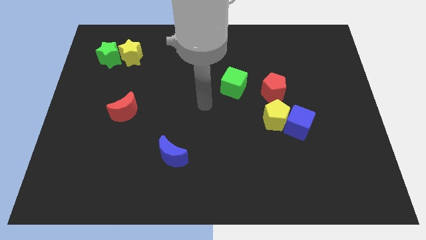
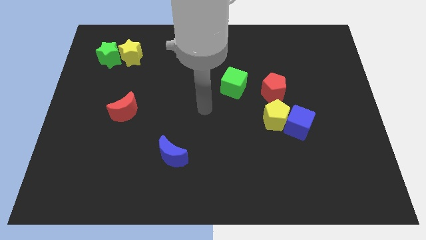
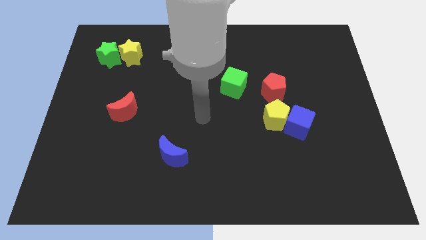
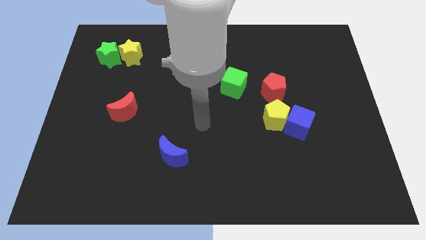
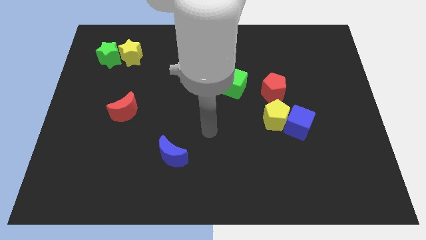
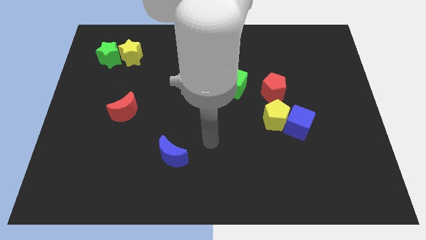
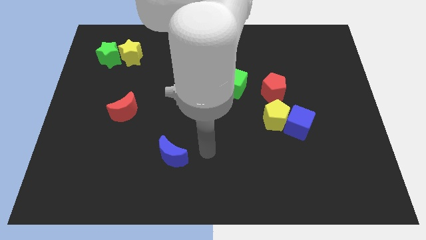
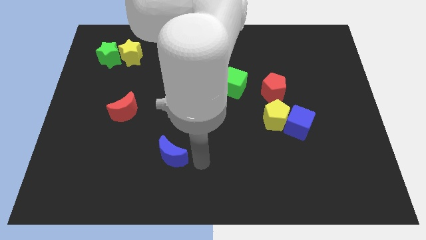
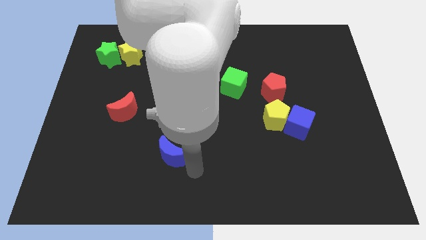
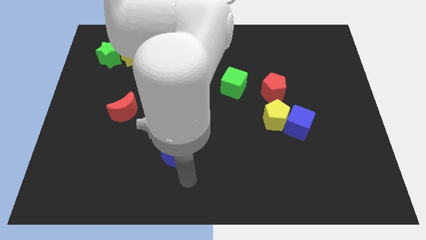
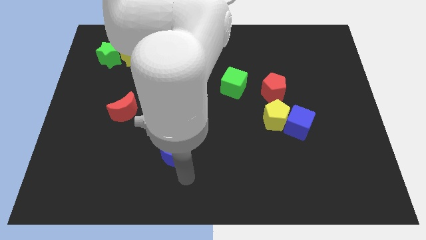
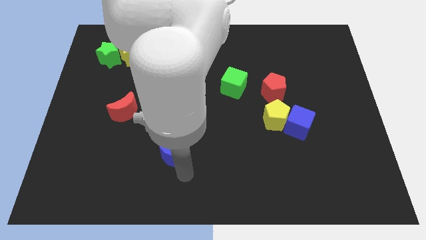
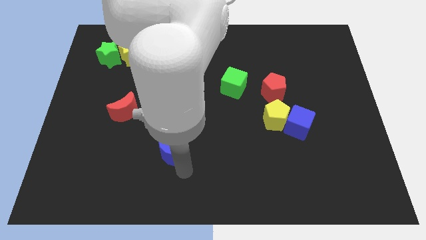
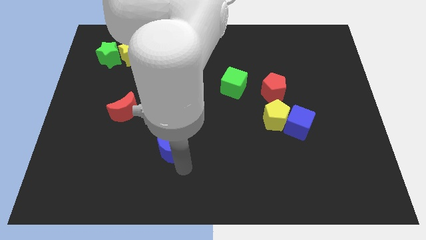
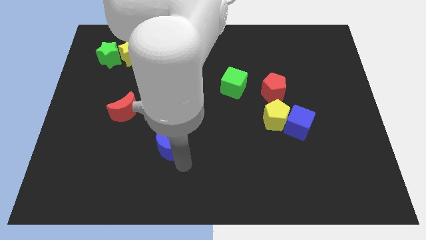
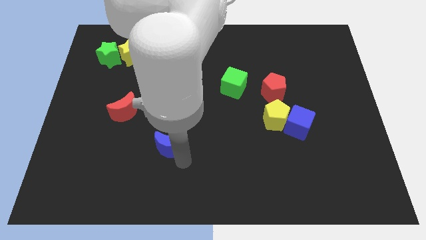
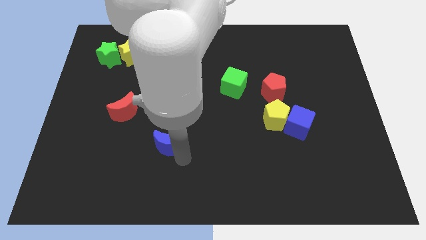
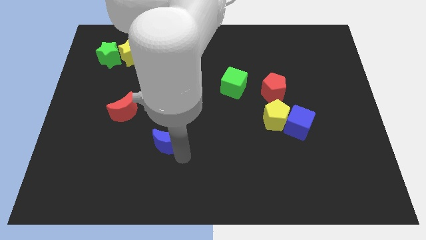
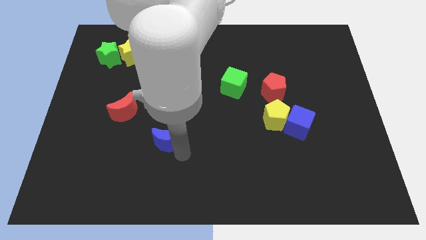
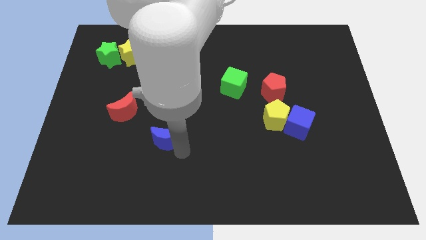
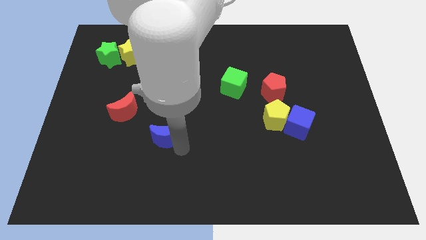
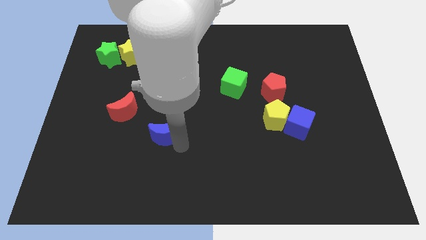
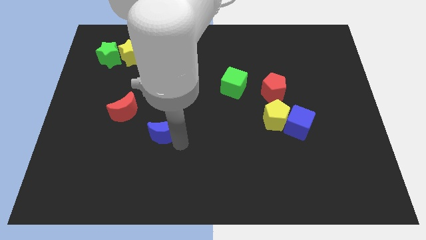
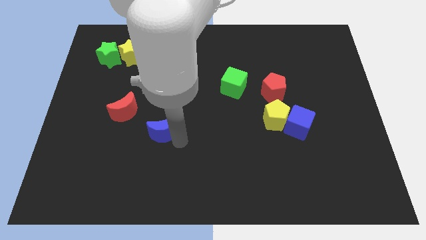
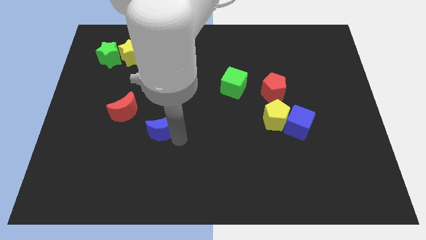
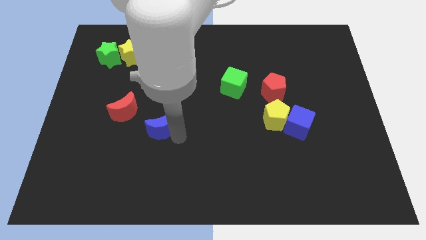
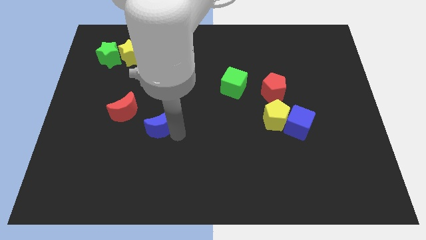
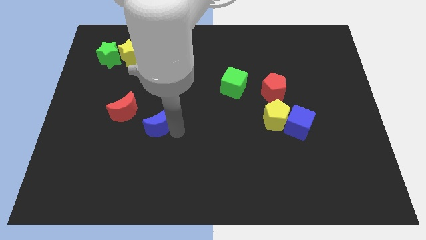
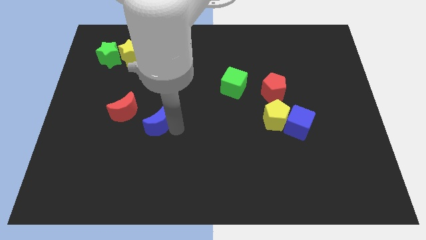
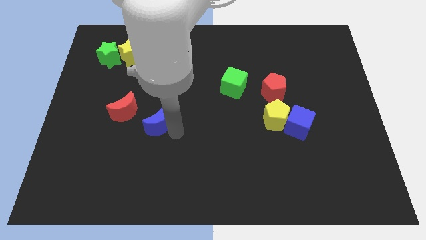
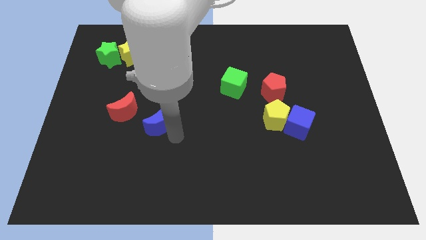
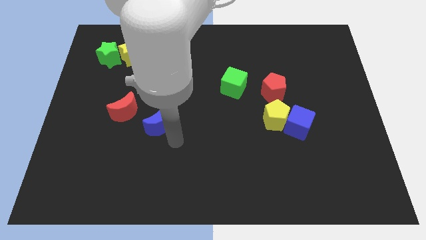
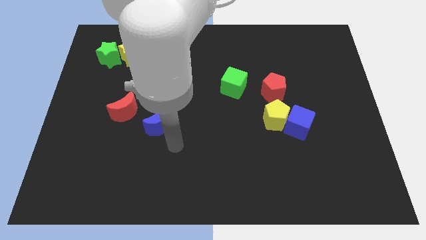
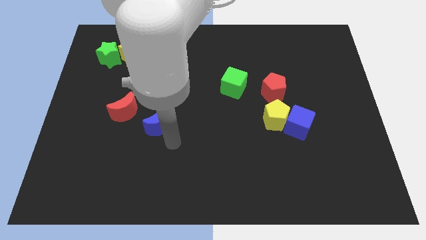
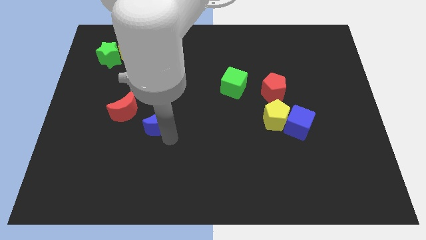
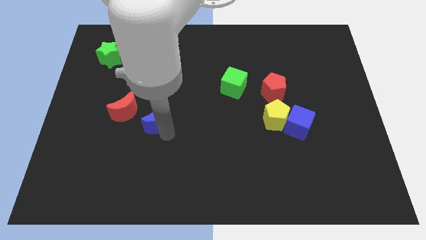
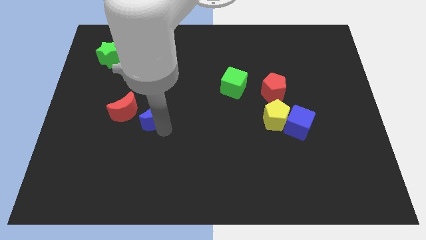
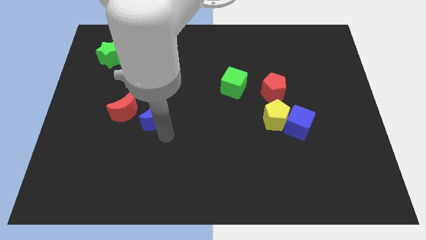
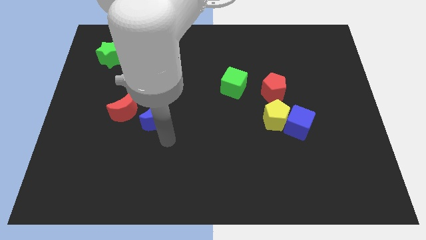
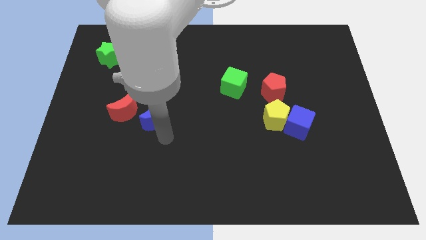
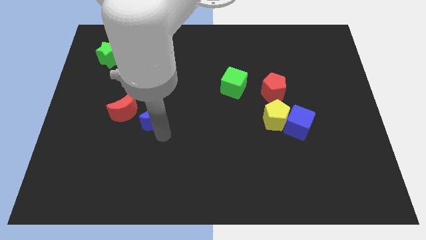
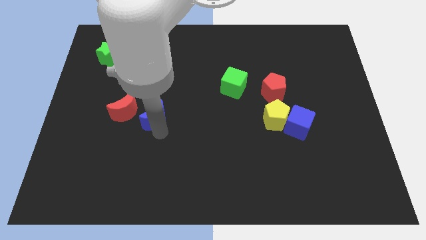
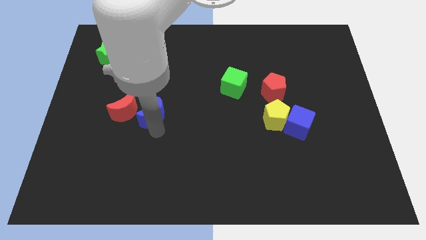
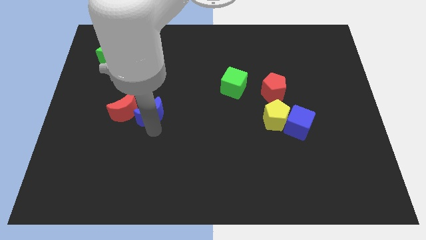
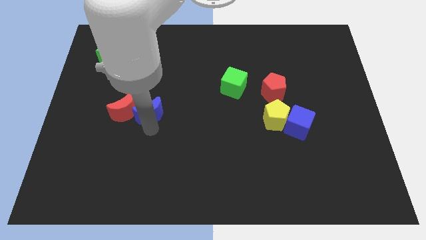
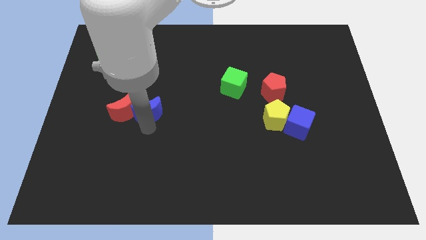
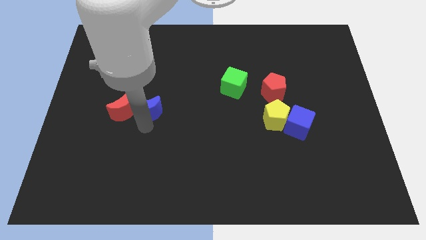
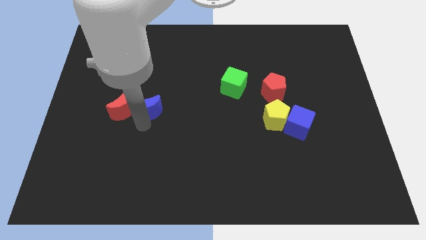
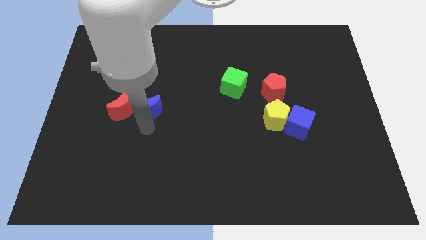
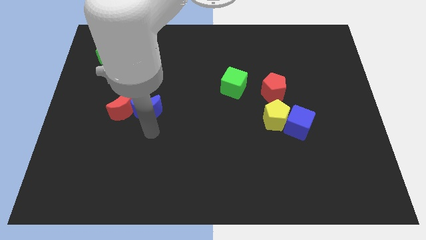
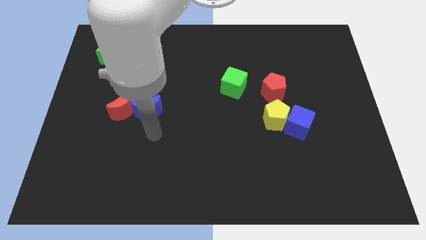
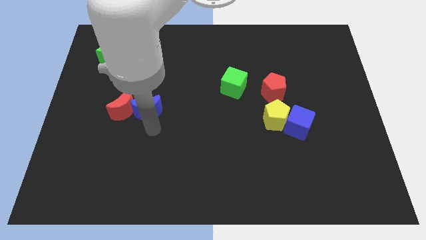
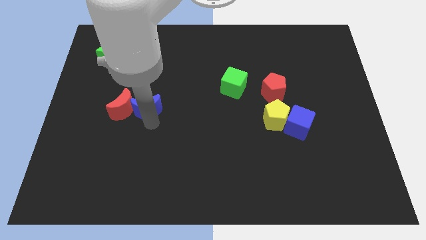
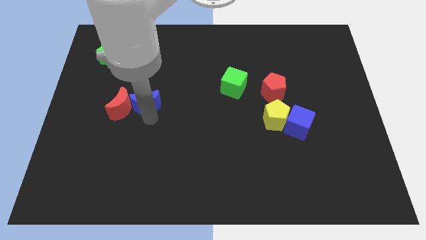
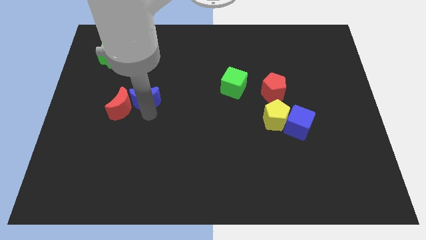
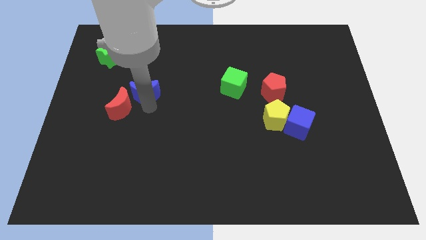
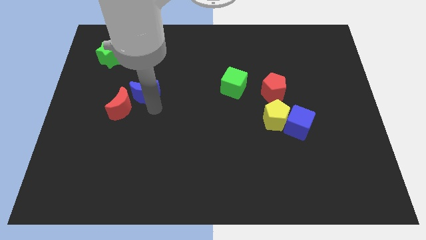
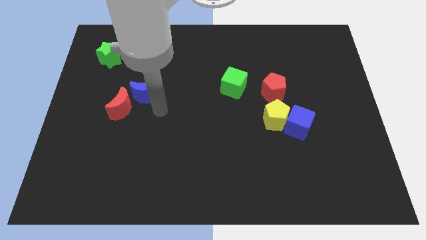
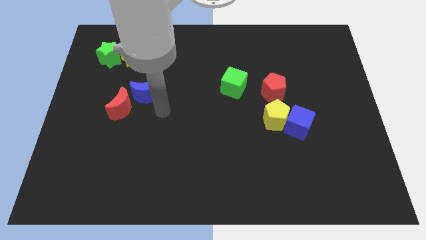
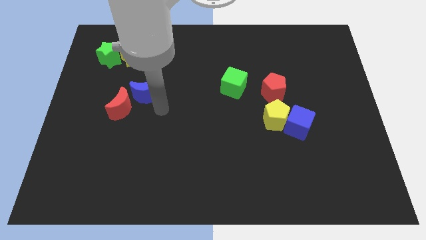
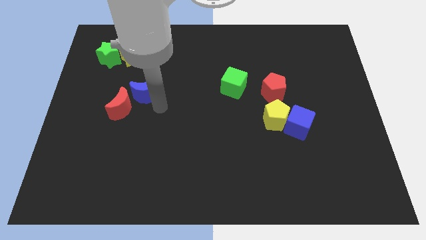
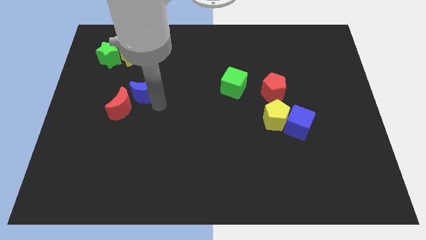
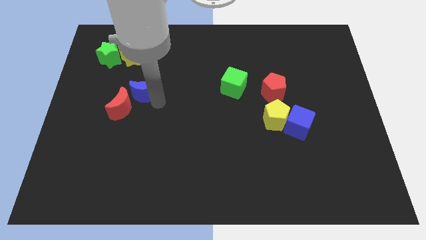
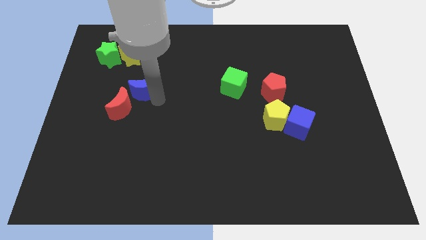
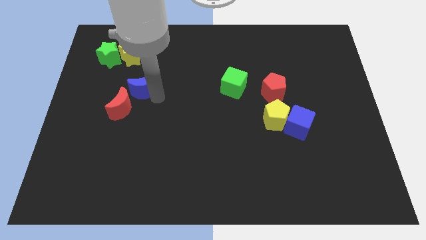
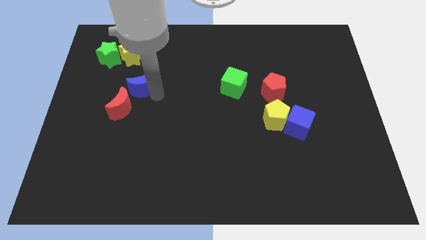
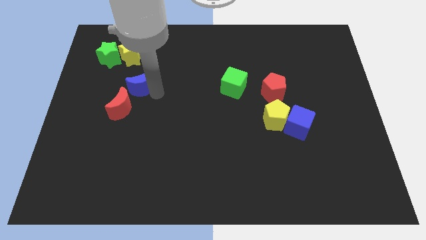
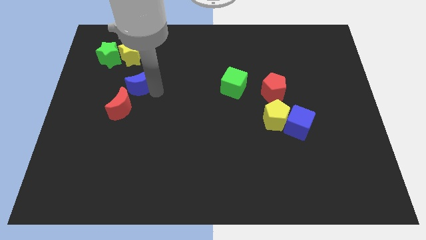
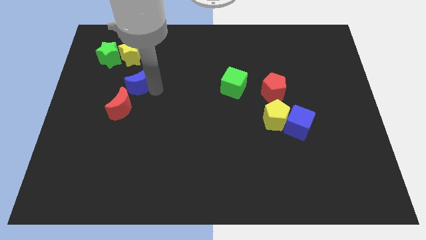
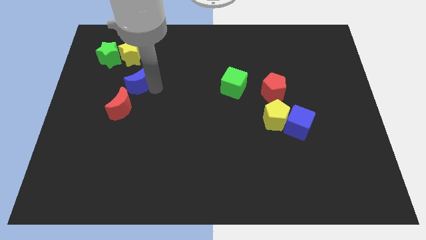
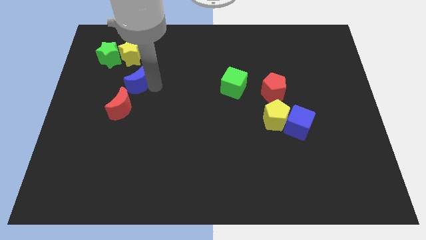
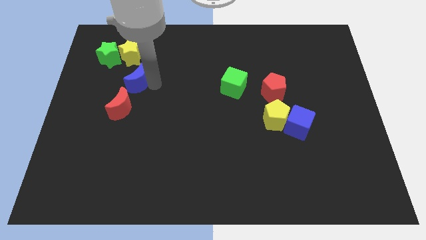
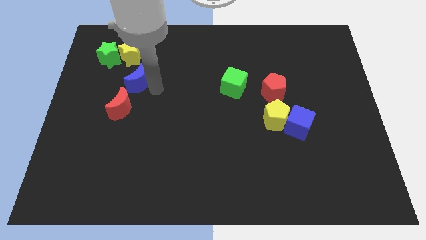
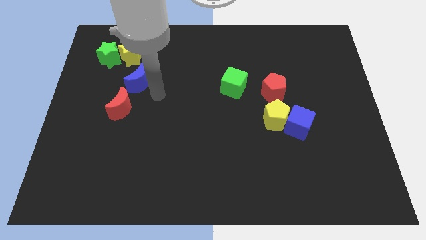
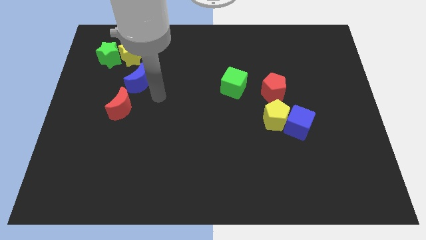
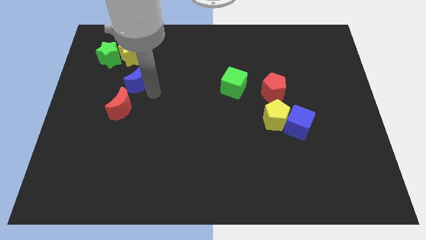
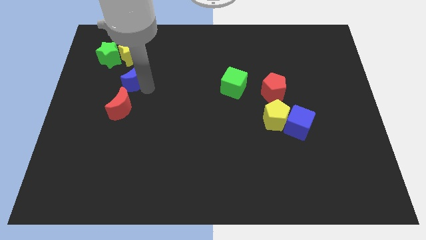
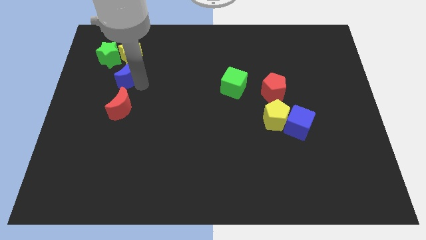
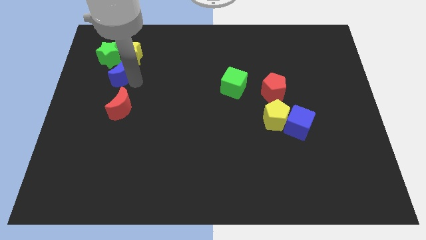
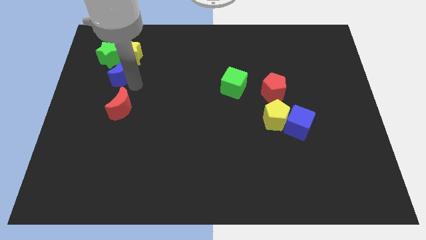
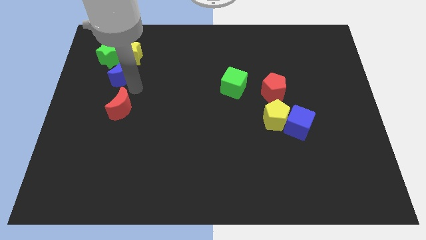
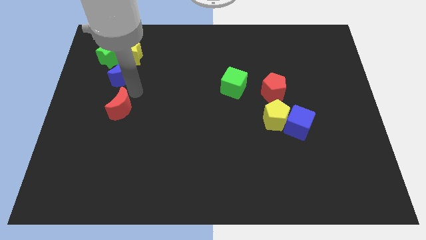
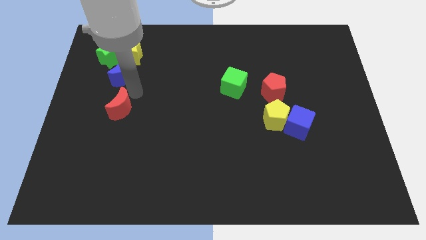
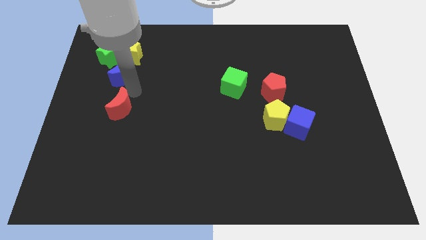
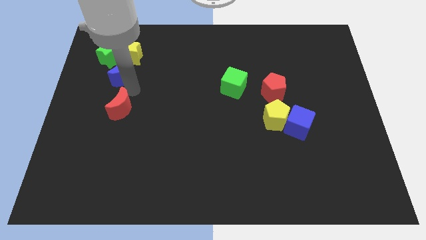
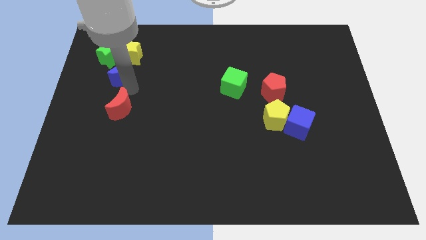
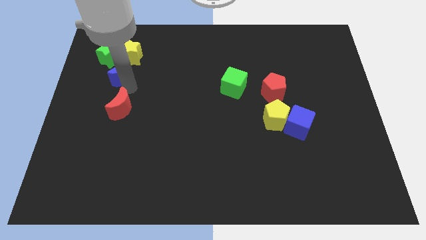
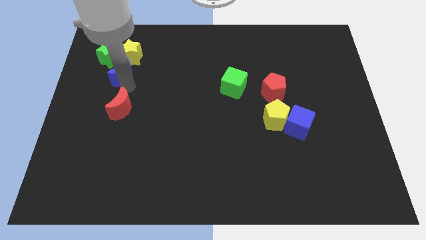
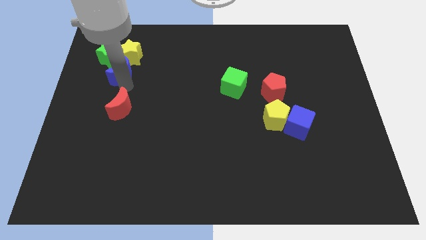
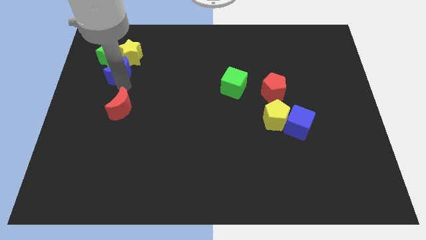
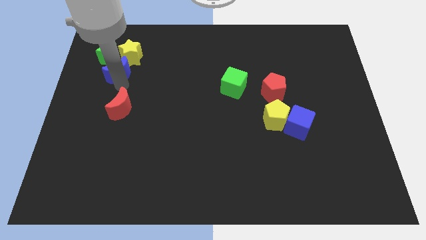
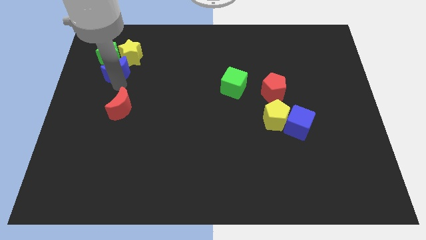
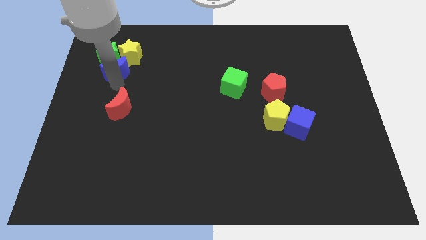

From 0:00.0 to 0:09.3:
move the blue moon towards the green star
